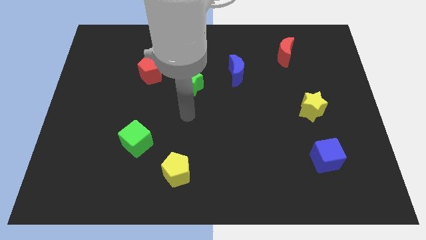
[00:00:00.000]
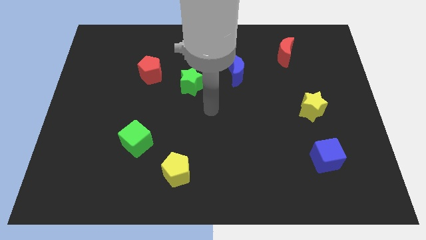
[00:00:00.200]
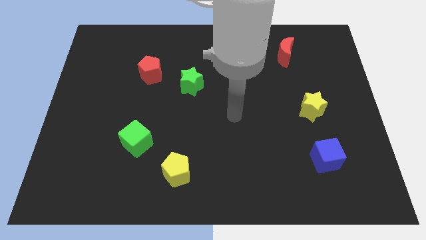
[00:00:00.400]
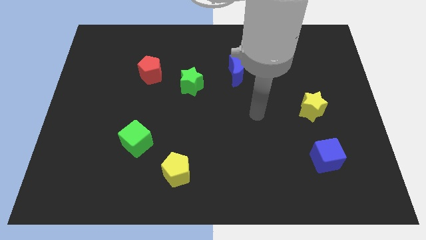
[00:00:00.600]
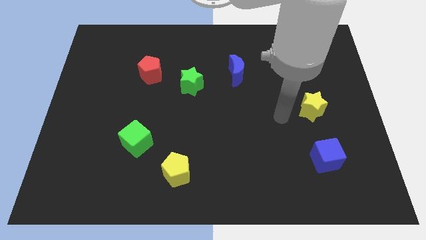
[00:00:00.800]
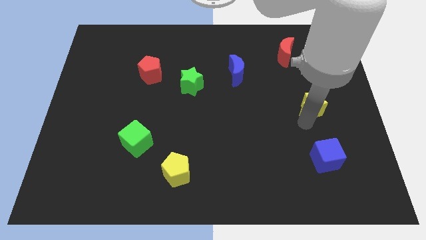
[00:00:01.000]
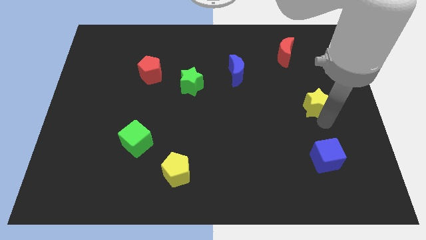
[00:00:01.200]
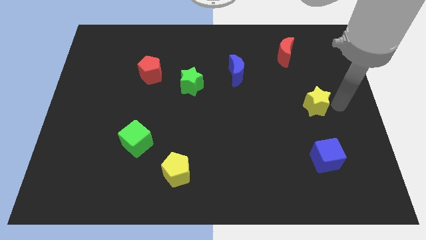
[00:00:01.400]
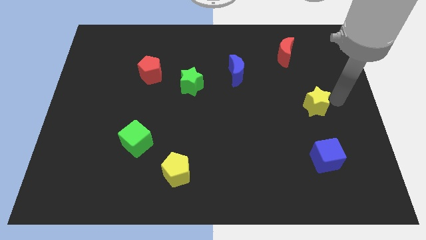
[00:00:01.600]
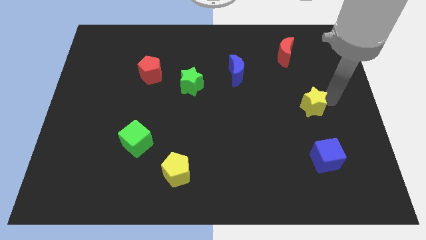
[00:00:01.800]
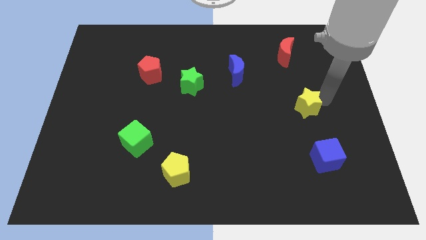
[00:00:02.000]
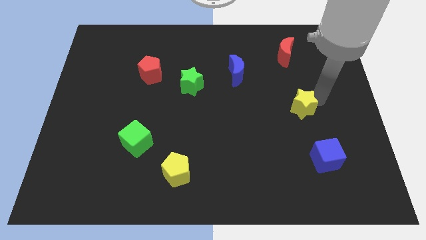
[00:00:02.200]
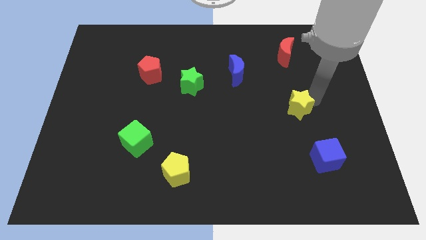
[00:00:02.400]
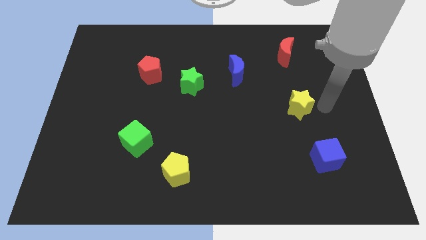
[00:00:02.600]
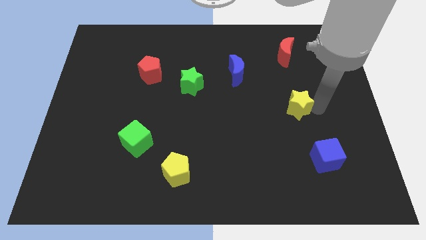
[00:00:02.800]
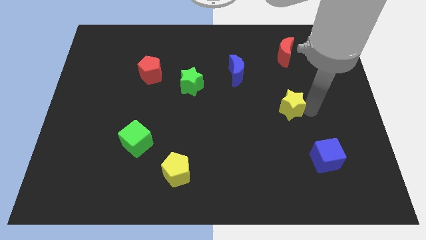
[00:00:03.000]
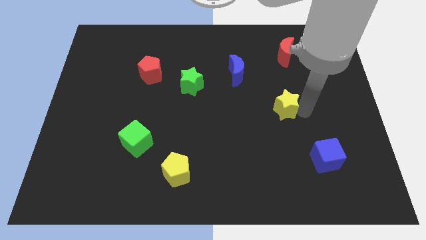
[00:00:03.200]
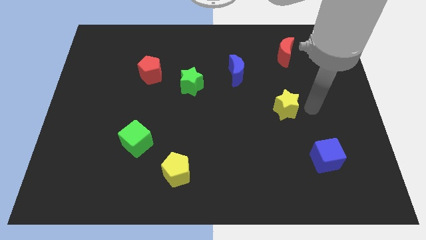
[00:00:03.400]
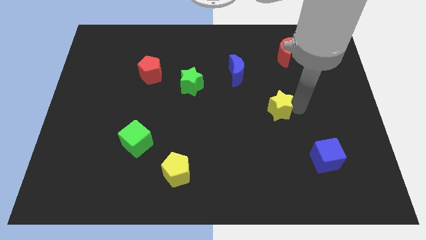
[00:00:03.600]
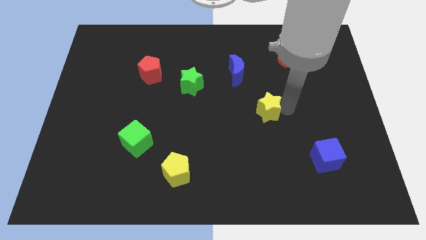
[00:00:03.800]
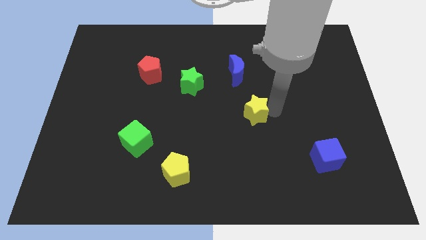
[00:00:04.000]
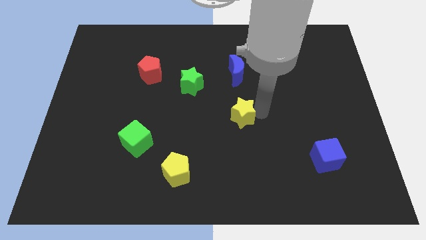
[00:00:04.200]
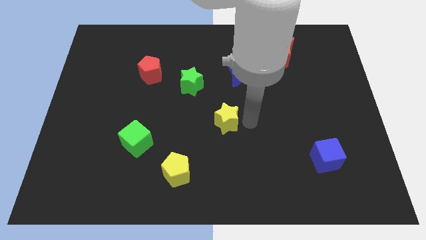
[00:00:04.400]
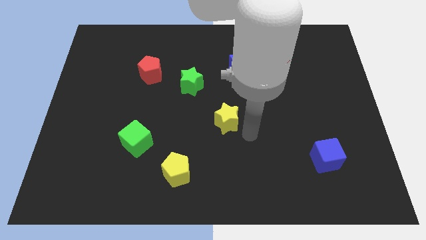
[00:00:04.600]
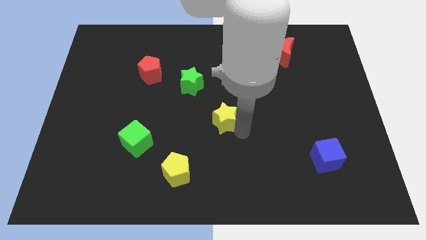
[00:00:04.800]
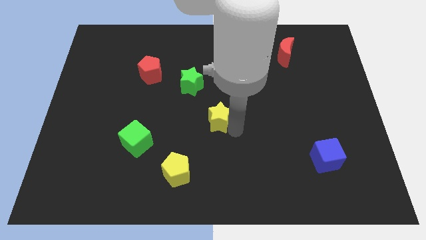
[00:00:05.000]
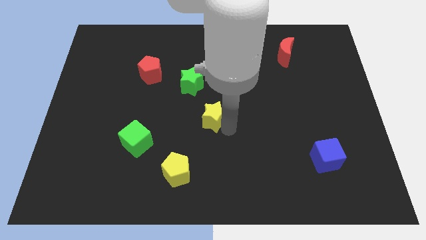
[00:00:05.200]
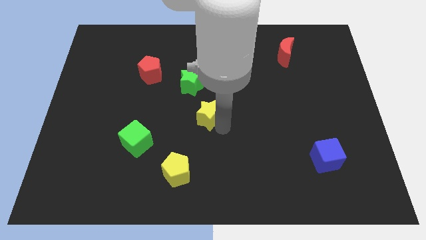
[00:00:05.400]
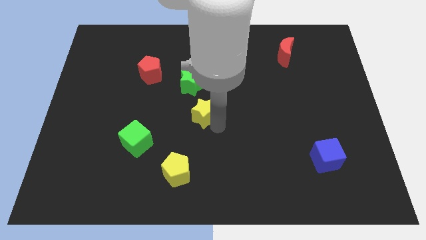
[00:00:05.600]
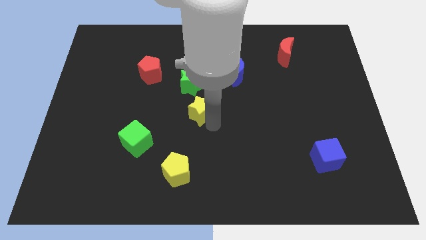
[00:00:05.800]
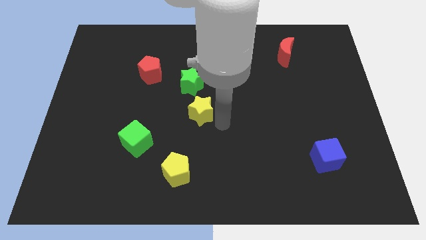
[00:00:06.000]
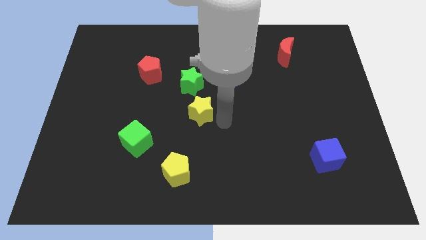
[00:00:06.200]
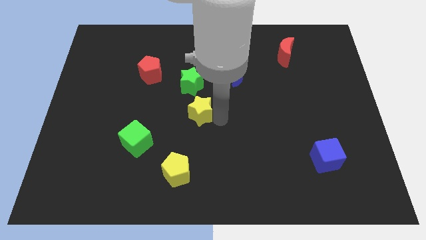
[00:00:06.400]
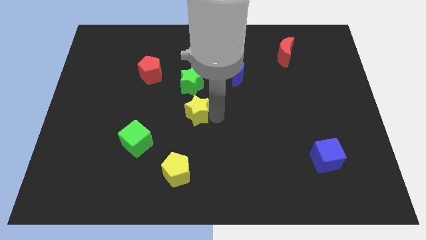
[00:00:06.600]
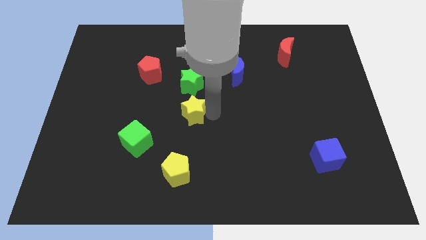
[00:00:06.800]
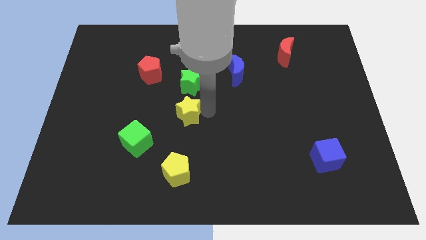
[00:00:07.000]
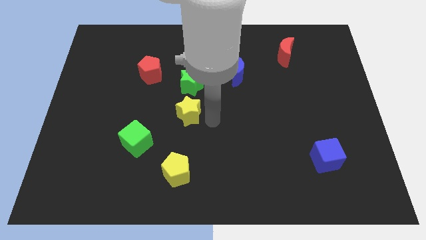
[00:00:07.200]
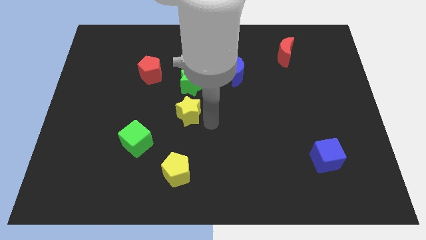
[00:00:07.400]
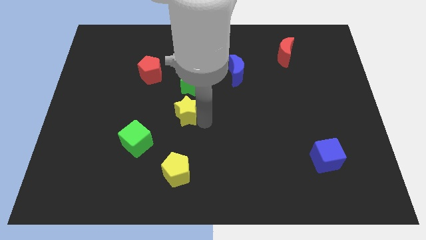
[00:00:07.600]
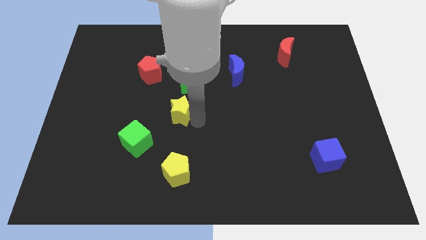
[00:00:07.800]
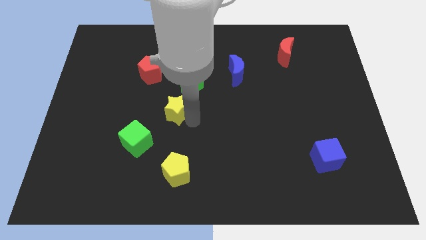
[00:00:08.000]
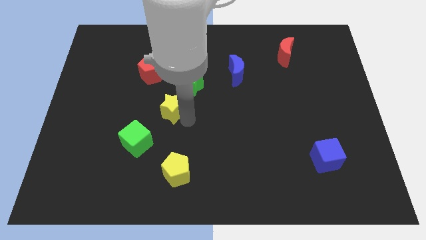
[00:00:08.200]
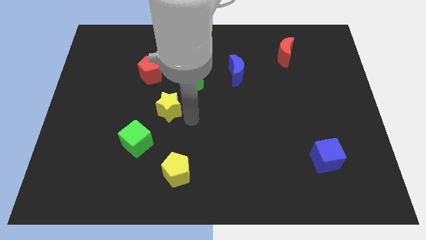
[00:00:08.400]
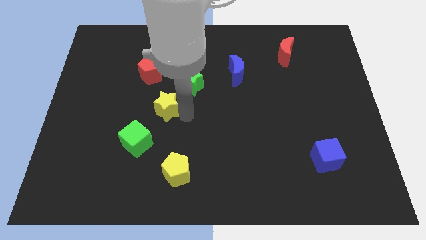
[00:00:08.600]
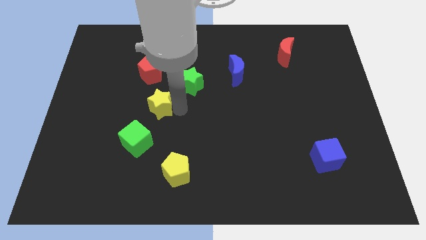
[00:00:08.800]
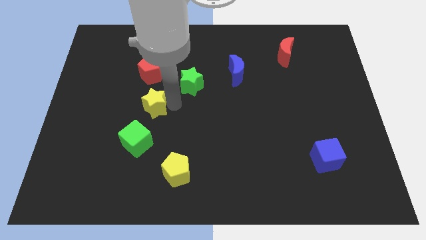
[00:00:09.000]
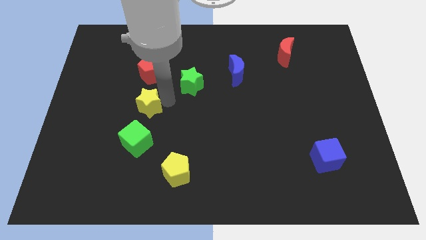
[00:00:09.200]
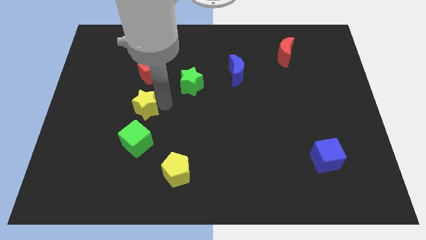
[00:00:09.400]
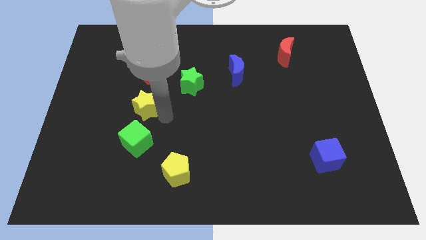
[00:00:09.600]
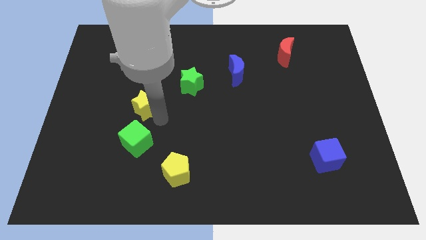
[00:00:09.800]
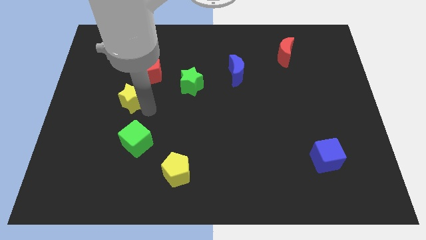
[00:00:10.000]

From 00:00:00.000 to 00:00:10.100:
move the yellow star to the bottom left side of the red pentagon

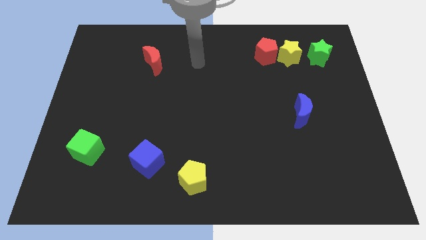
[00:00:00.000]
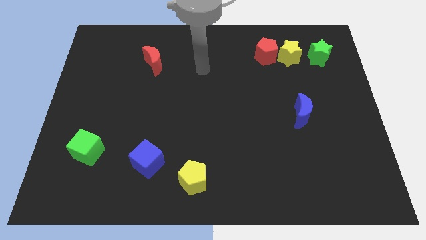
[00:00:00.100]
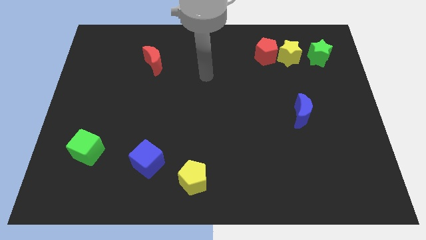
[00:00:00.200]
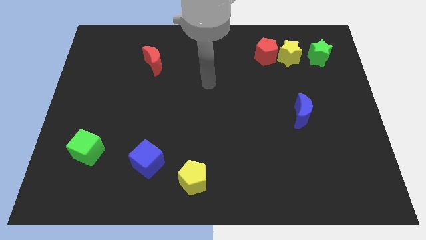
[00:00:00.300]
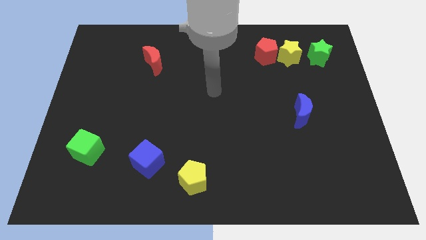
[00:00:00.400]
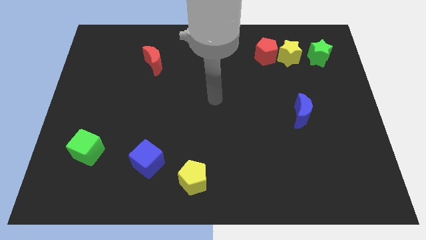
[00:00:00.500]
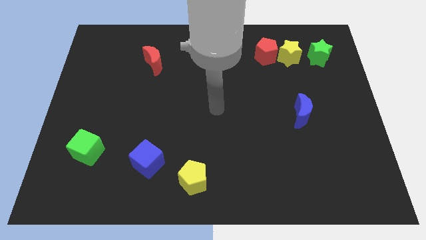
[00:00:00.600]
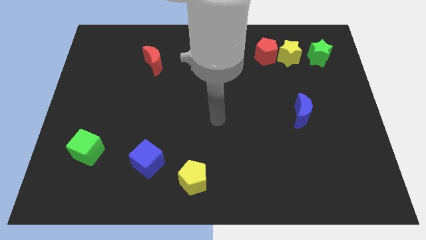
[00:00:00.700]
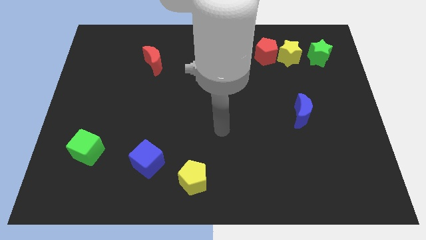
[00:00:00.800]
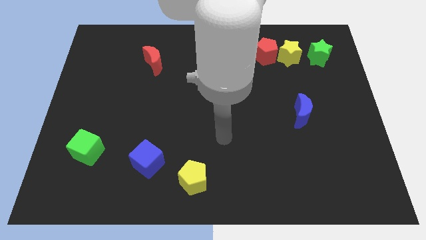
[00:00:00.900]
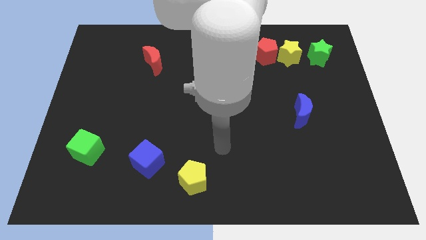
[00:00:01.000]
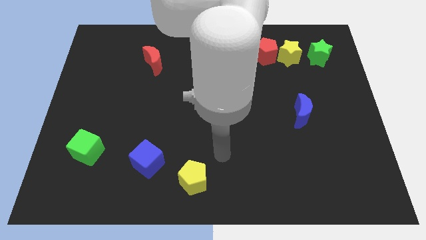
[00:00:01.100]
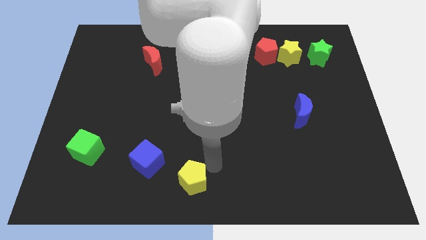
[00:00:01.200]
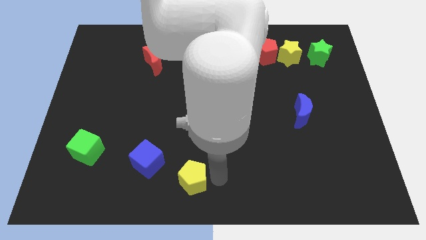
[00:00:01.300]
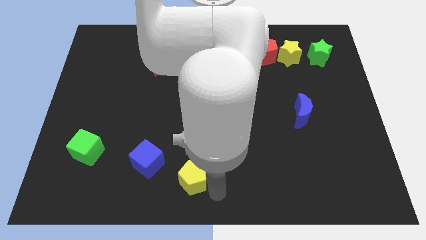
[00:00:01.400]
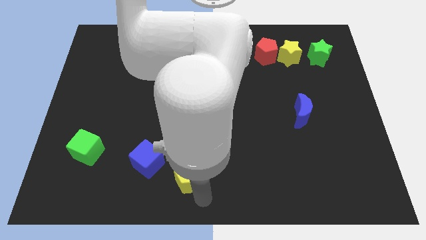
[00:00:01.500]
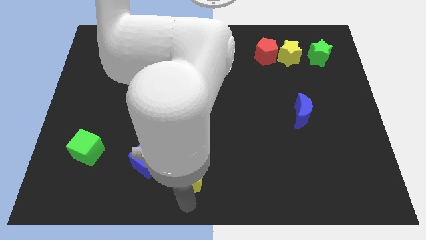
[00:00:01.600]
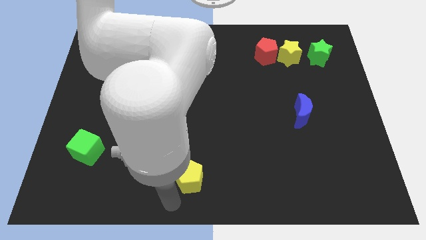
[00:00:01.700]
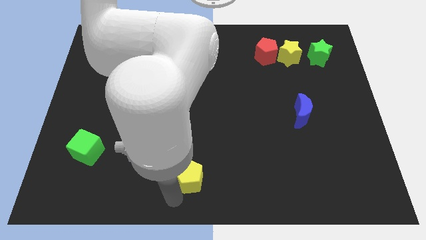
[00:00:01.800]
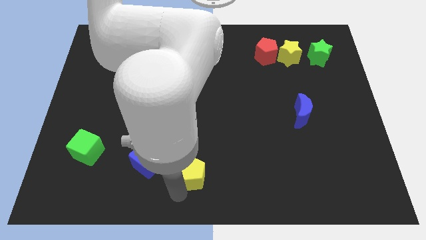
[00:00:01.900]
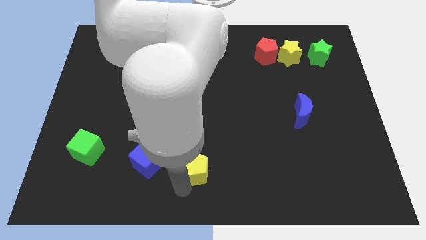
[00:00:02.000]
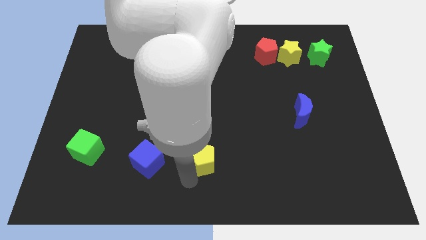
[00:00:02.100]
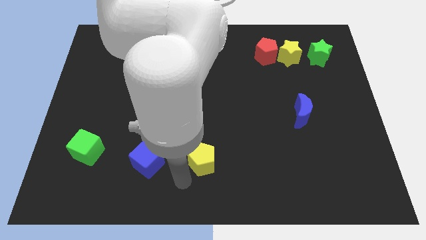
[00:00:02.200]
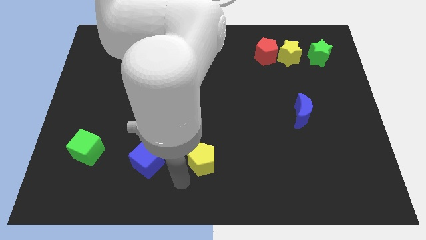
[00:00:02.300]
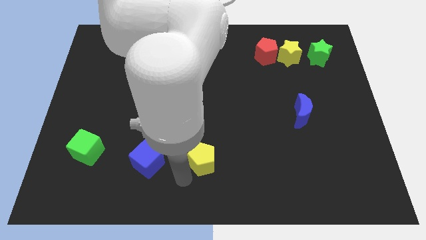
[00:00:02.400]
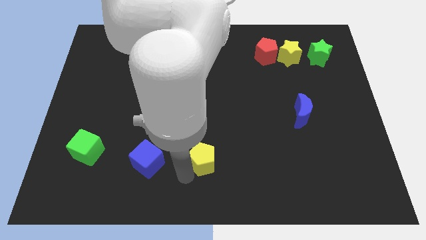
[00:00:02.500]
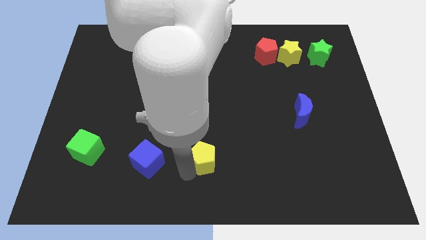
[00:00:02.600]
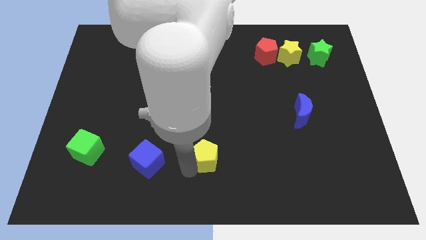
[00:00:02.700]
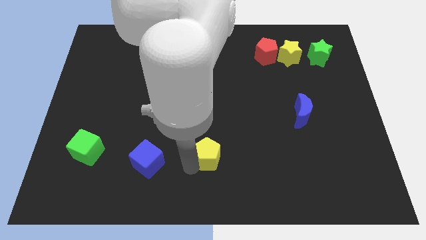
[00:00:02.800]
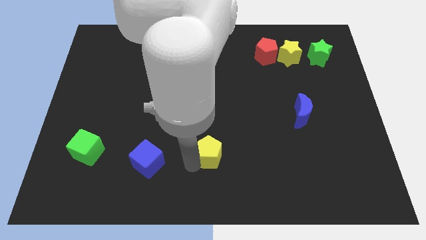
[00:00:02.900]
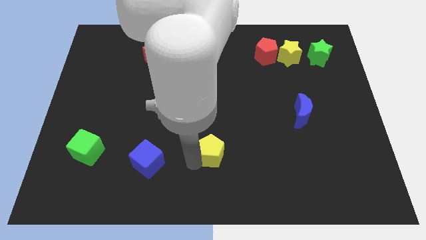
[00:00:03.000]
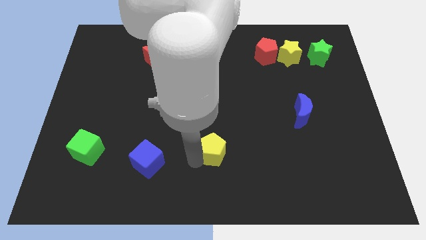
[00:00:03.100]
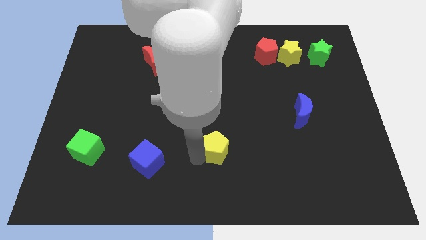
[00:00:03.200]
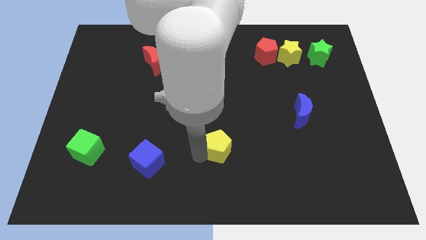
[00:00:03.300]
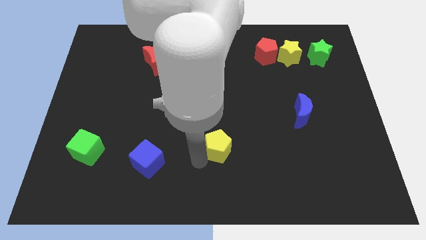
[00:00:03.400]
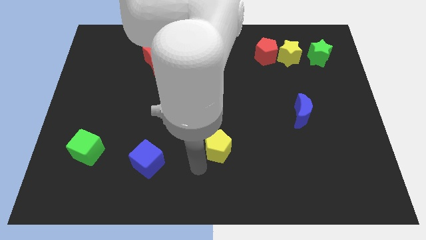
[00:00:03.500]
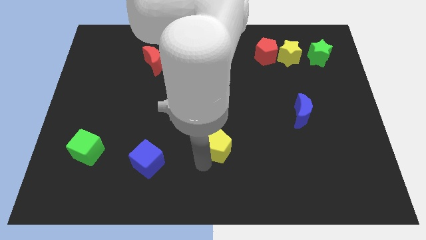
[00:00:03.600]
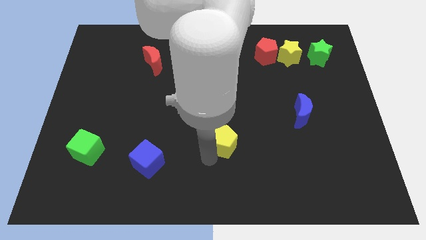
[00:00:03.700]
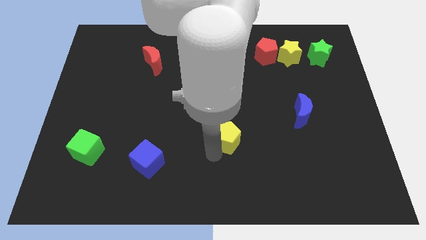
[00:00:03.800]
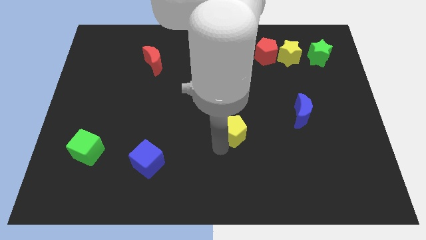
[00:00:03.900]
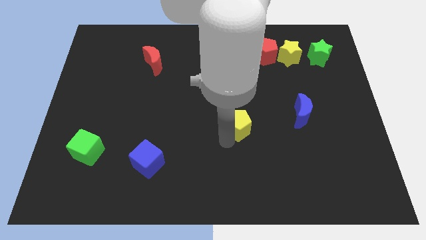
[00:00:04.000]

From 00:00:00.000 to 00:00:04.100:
slide the yellow pentagon to the left side of the blue moon
